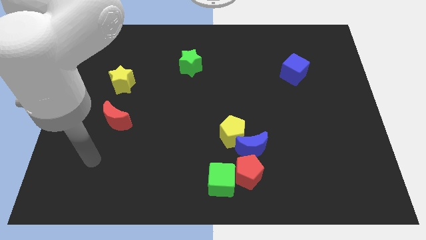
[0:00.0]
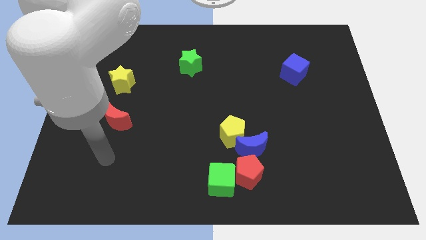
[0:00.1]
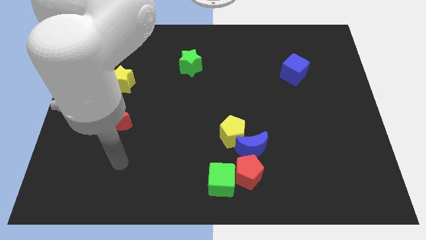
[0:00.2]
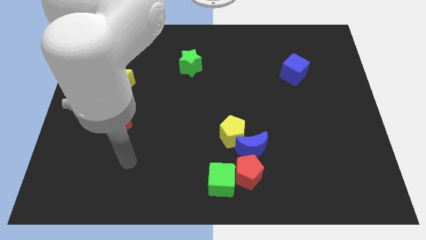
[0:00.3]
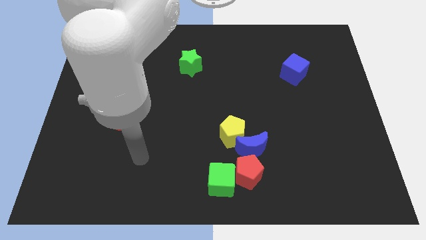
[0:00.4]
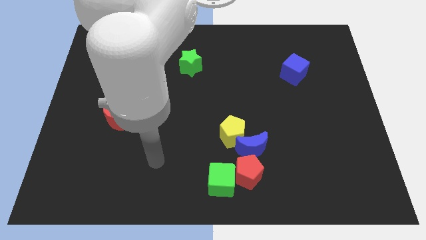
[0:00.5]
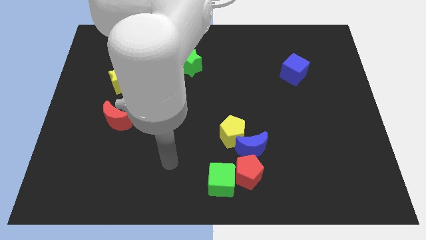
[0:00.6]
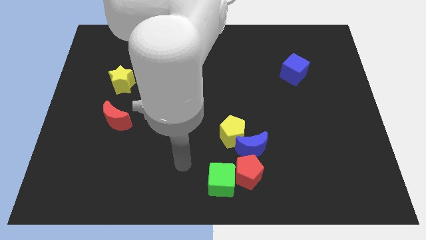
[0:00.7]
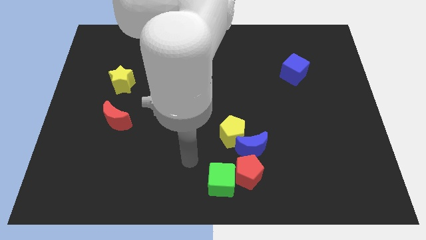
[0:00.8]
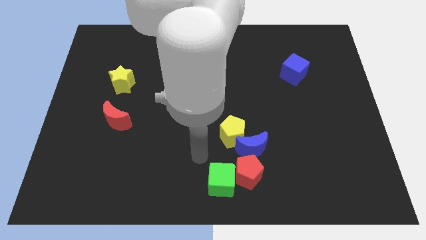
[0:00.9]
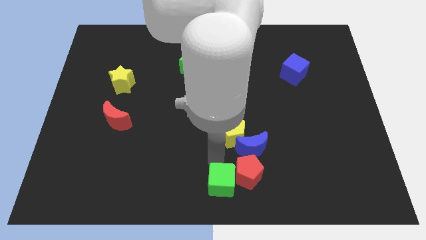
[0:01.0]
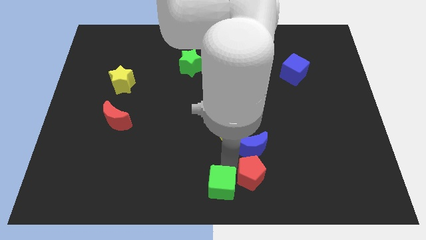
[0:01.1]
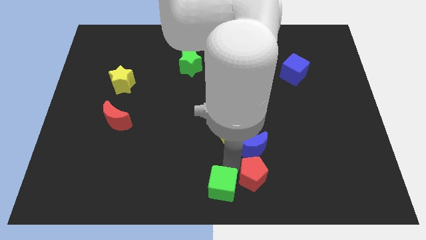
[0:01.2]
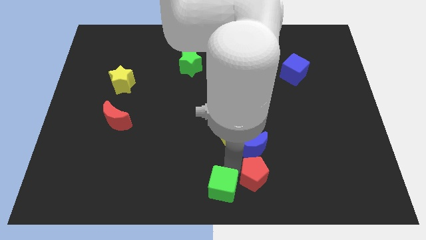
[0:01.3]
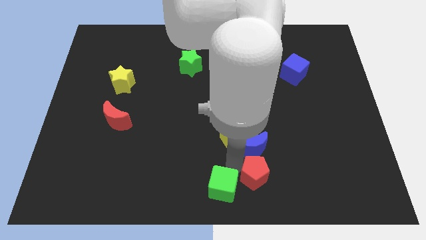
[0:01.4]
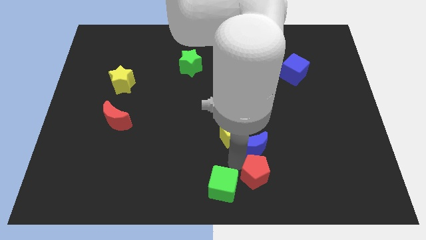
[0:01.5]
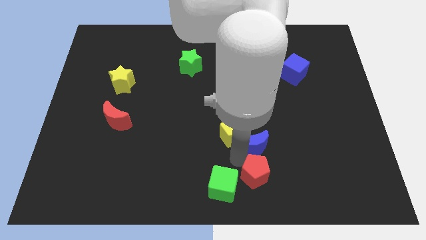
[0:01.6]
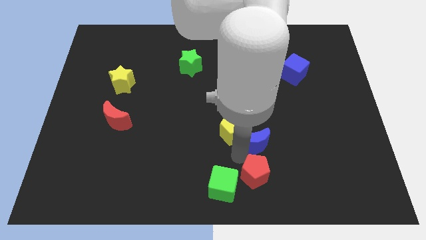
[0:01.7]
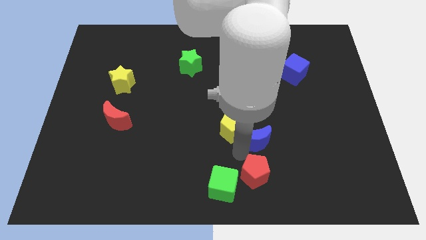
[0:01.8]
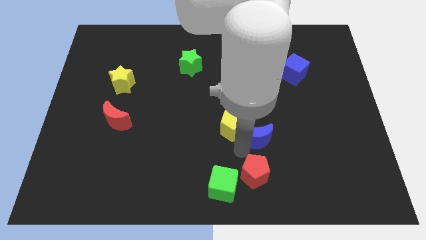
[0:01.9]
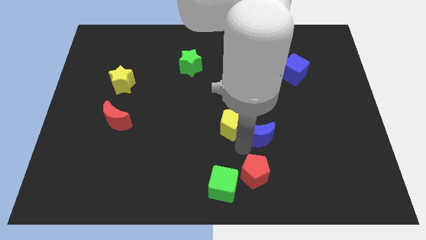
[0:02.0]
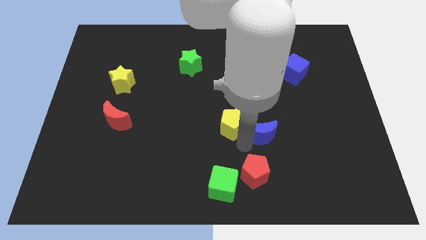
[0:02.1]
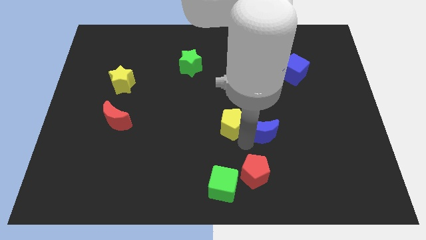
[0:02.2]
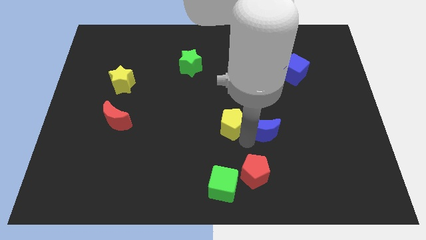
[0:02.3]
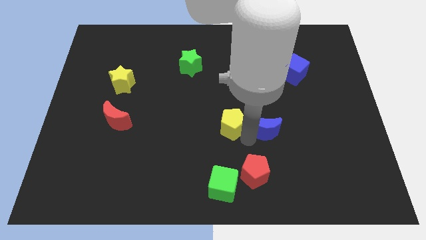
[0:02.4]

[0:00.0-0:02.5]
separate the blue moon from the yellow pentagon, red pentagon, and green cube

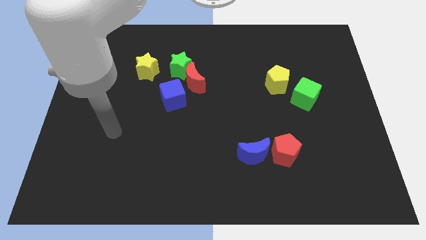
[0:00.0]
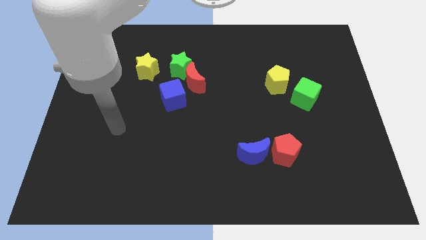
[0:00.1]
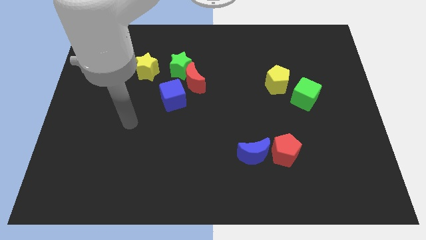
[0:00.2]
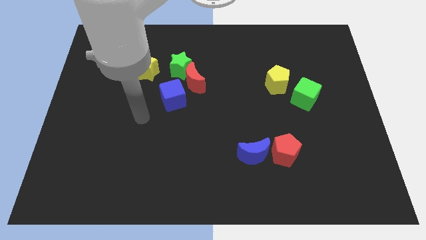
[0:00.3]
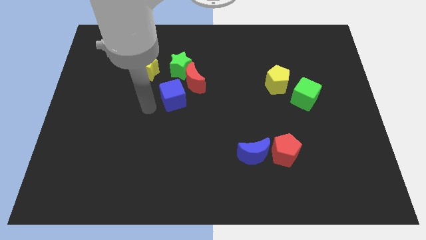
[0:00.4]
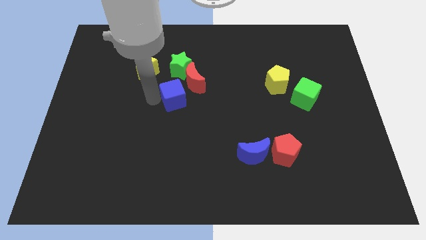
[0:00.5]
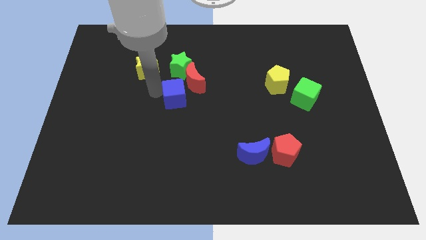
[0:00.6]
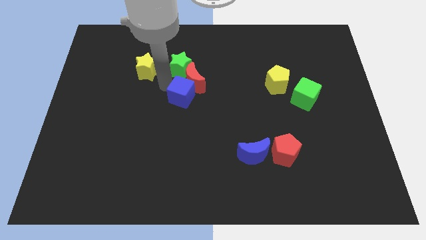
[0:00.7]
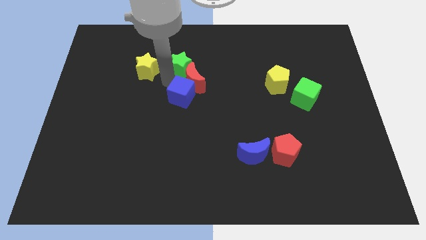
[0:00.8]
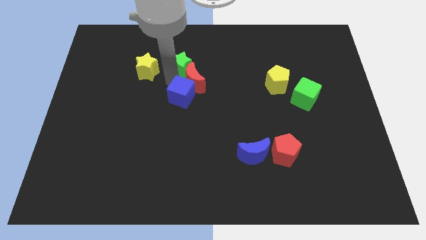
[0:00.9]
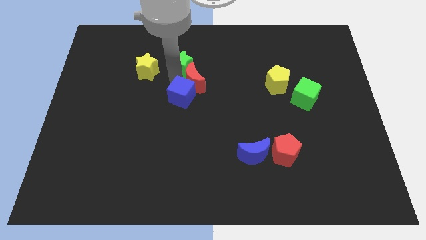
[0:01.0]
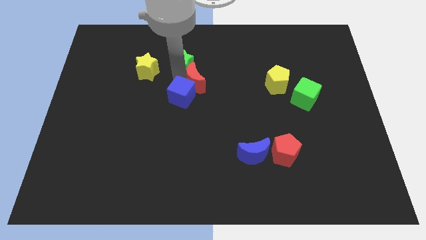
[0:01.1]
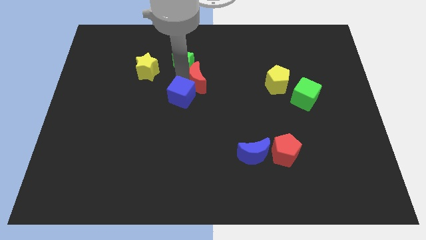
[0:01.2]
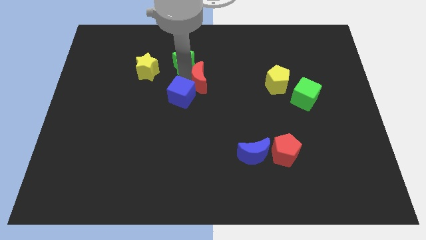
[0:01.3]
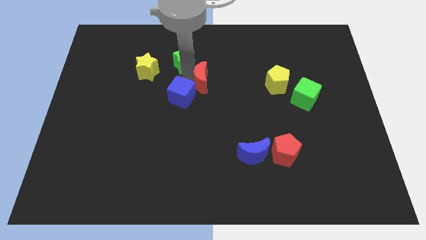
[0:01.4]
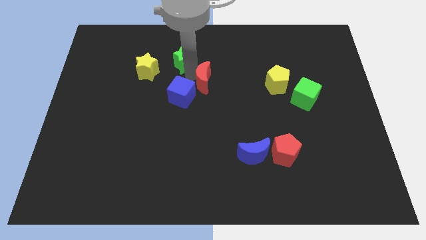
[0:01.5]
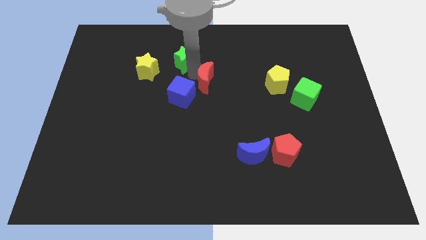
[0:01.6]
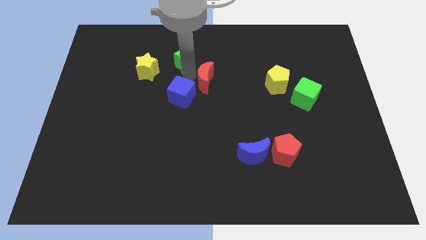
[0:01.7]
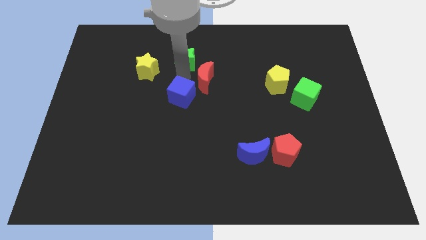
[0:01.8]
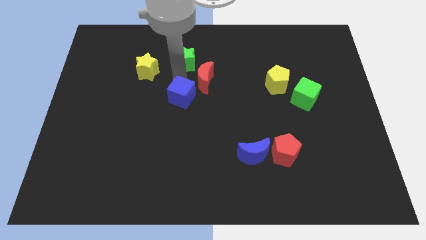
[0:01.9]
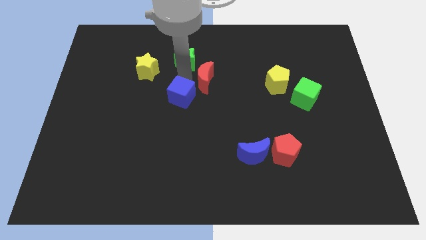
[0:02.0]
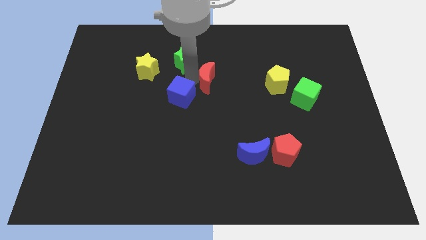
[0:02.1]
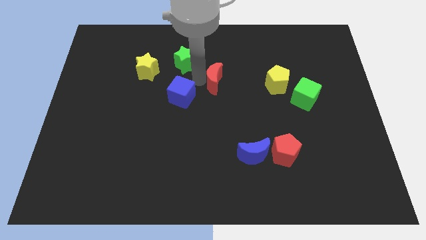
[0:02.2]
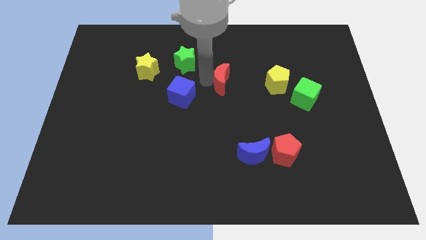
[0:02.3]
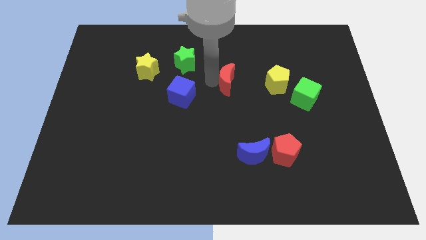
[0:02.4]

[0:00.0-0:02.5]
separate the red moon from the green star and blue cube

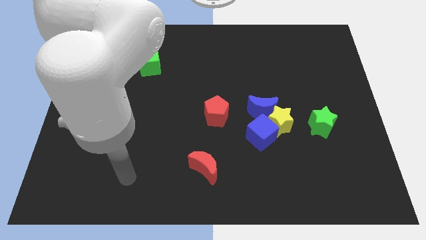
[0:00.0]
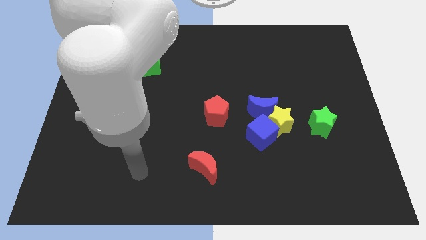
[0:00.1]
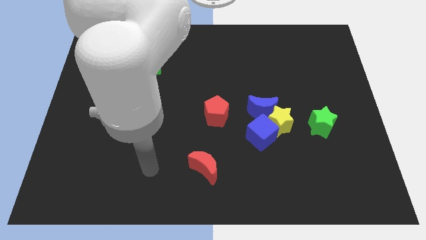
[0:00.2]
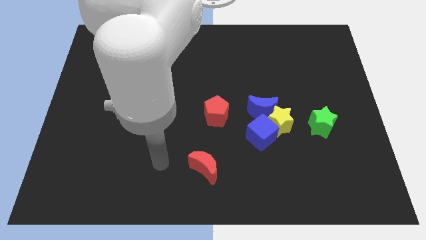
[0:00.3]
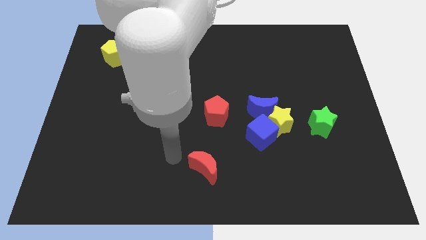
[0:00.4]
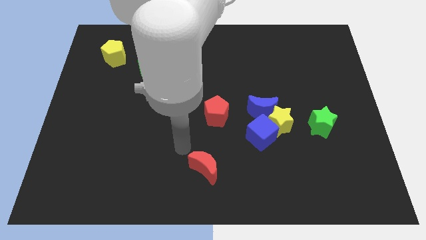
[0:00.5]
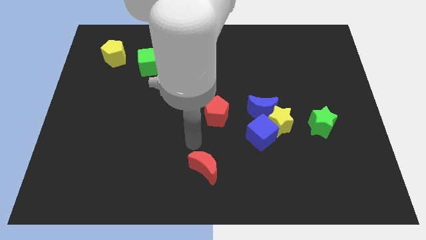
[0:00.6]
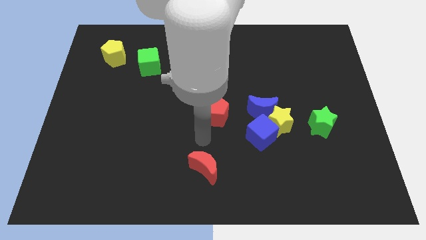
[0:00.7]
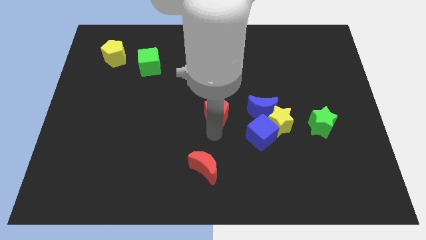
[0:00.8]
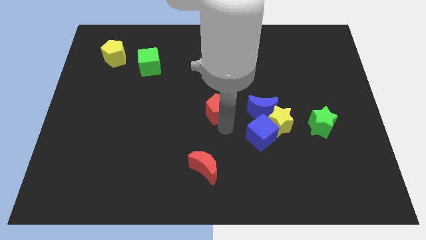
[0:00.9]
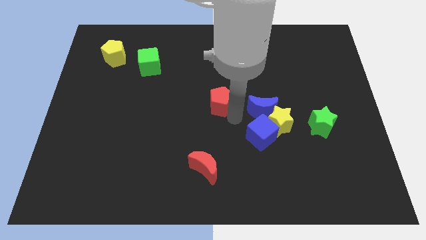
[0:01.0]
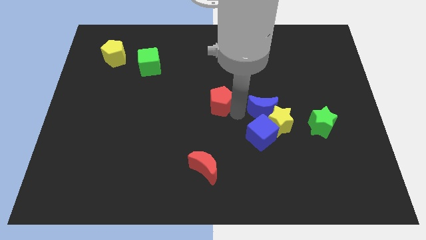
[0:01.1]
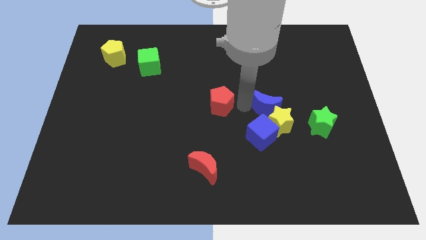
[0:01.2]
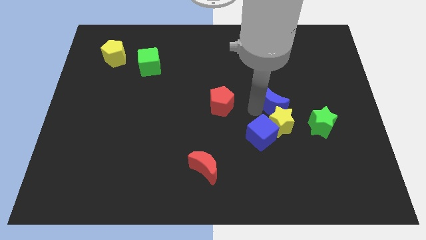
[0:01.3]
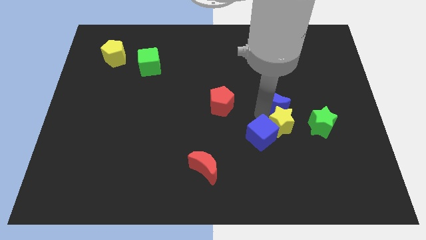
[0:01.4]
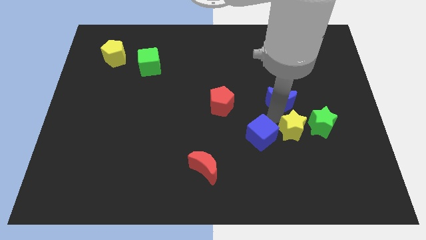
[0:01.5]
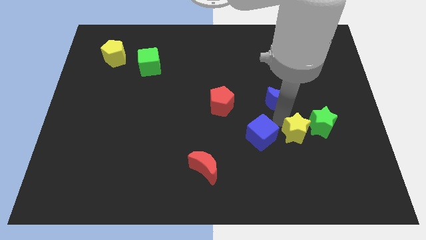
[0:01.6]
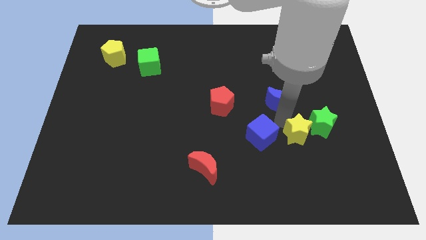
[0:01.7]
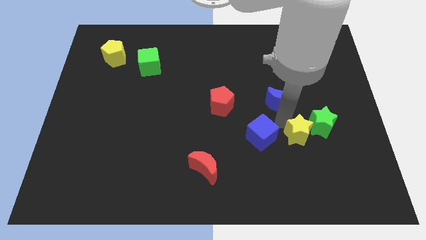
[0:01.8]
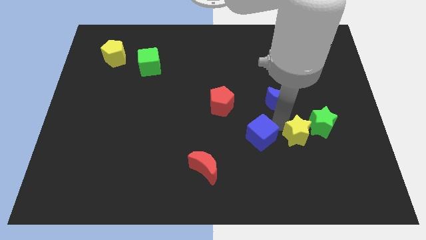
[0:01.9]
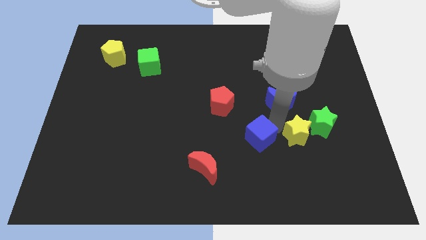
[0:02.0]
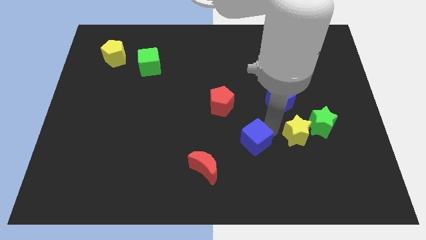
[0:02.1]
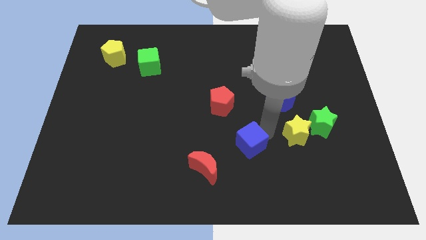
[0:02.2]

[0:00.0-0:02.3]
separate the blue cube from the yellow star and blue moon

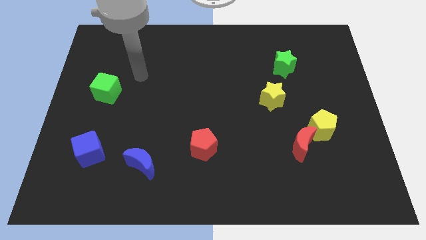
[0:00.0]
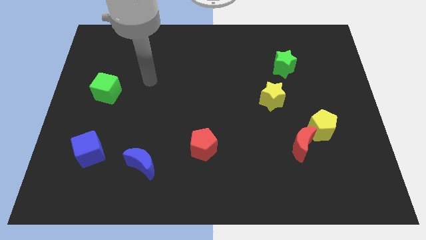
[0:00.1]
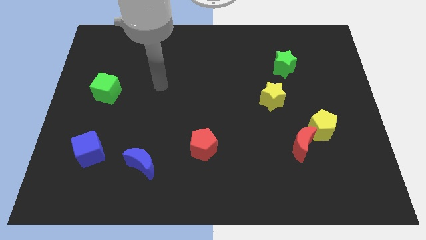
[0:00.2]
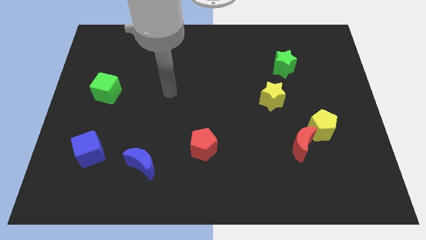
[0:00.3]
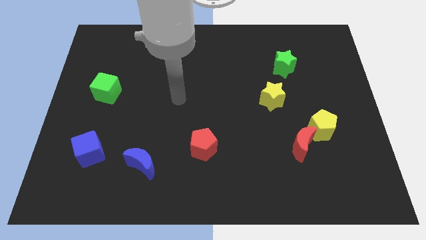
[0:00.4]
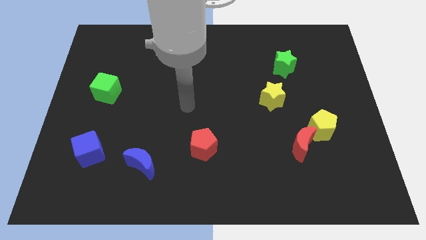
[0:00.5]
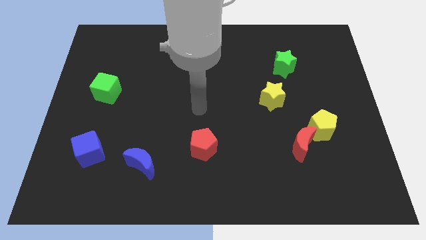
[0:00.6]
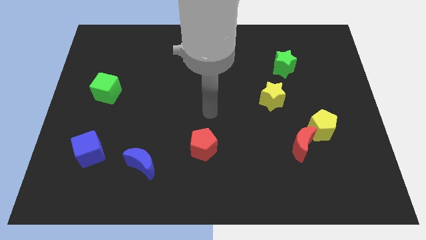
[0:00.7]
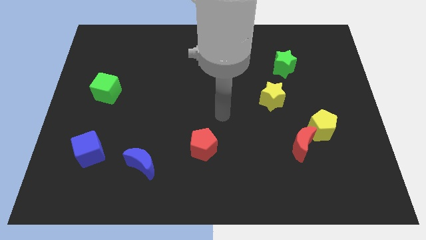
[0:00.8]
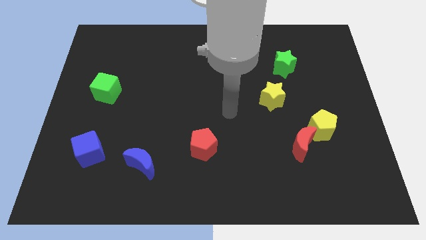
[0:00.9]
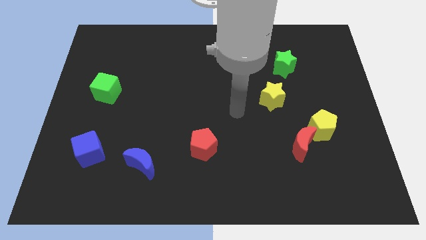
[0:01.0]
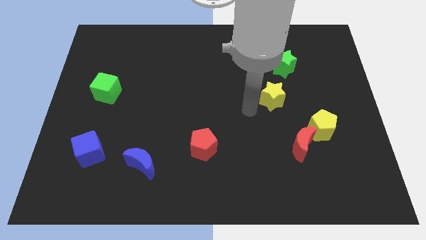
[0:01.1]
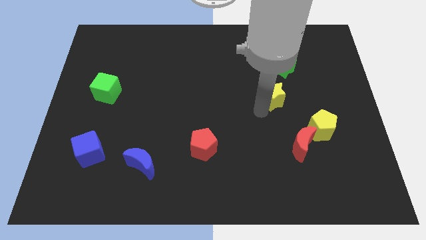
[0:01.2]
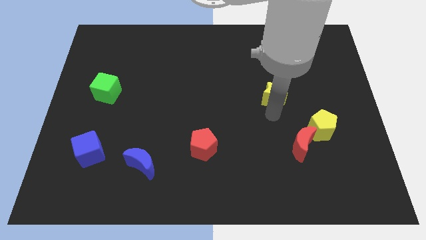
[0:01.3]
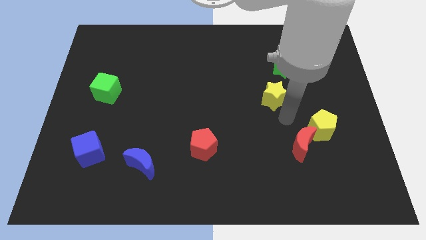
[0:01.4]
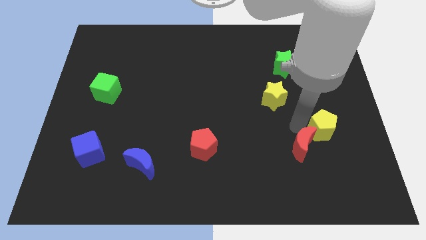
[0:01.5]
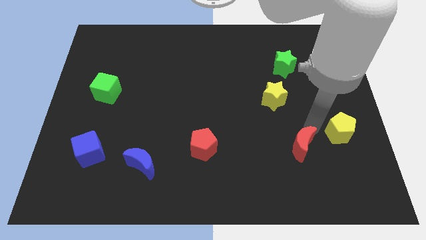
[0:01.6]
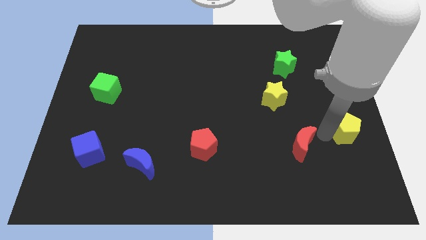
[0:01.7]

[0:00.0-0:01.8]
move the red moon away from the yellow pentagon

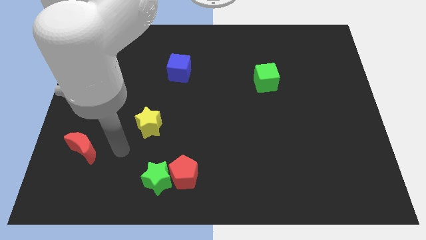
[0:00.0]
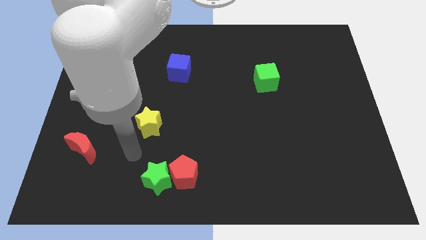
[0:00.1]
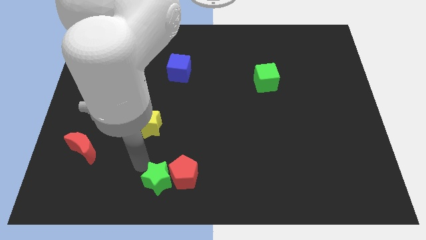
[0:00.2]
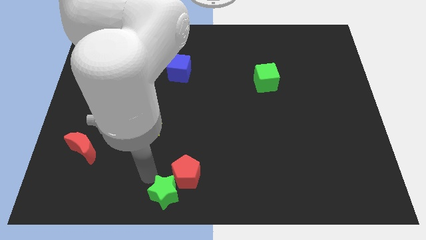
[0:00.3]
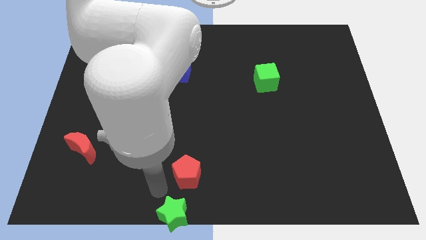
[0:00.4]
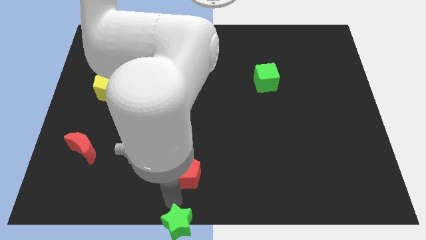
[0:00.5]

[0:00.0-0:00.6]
move the red pentagon away from the green star
